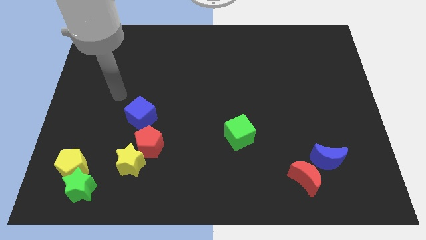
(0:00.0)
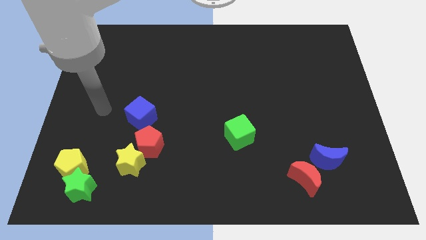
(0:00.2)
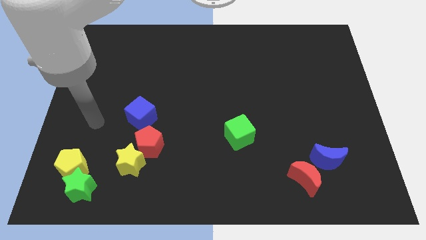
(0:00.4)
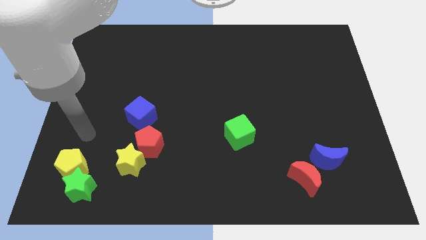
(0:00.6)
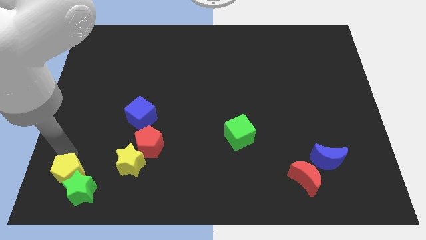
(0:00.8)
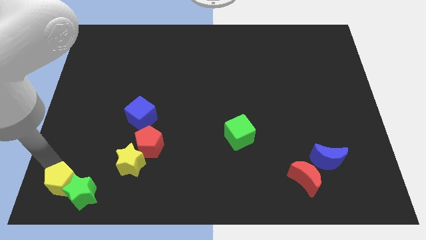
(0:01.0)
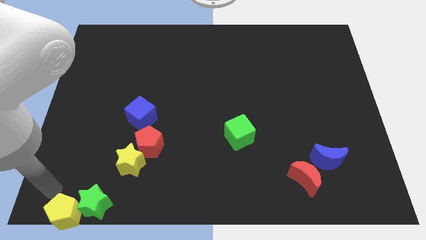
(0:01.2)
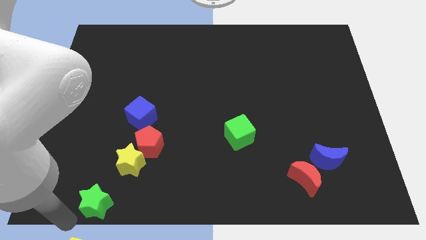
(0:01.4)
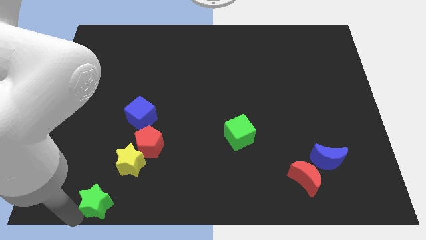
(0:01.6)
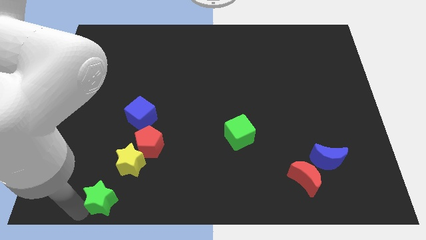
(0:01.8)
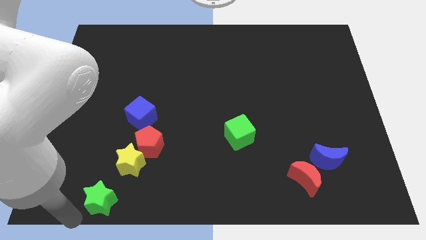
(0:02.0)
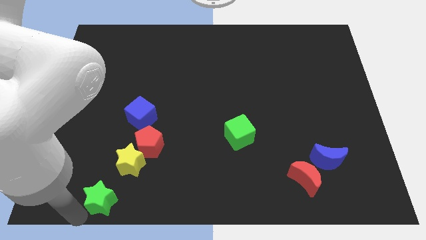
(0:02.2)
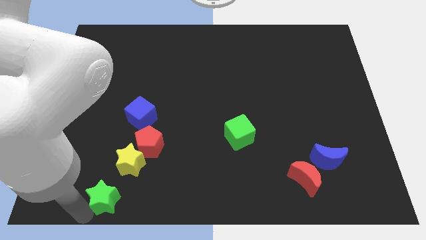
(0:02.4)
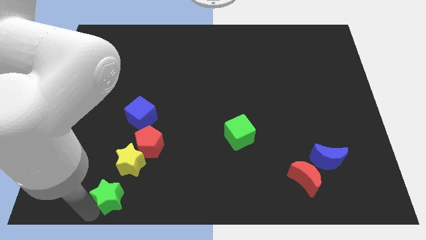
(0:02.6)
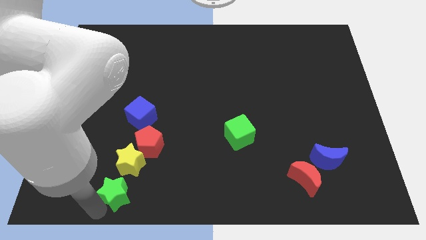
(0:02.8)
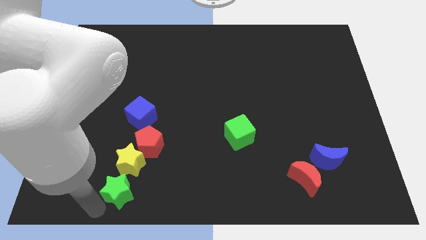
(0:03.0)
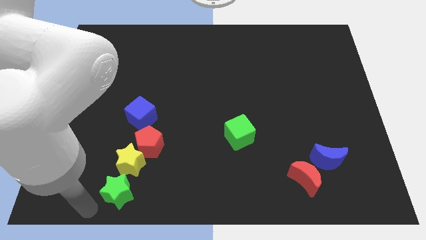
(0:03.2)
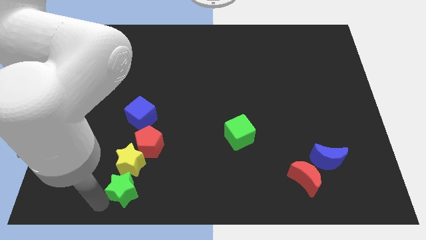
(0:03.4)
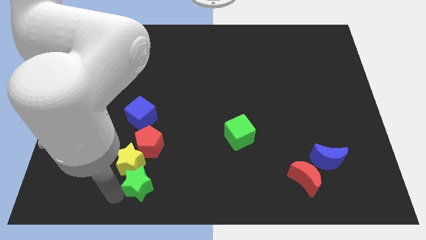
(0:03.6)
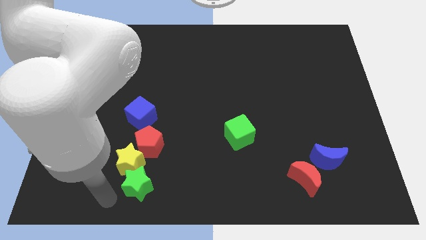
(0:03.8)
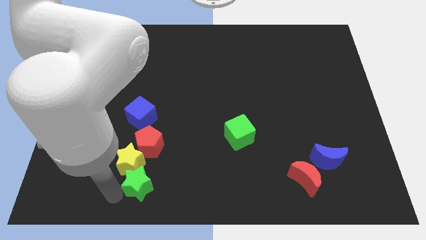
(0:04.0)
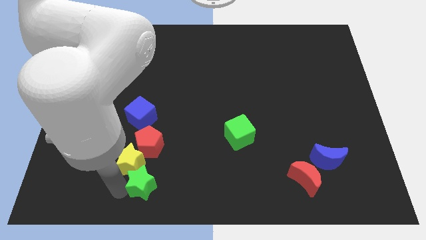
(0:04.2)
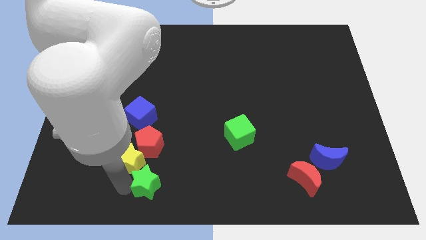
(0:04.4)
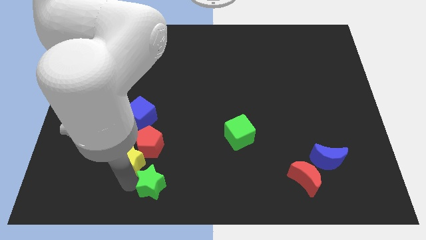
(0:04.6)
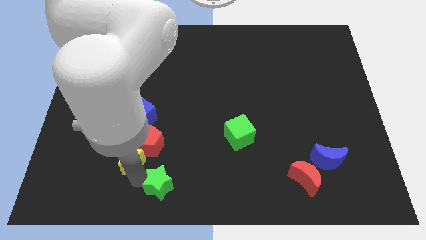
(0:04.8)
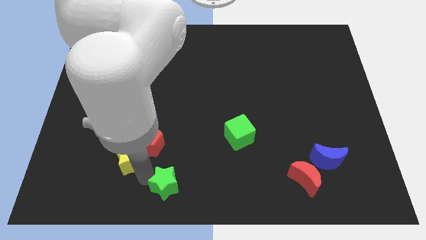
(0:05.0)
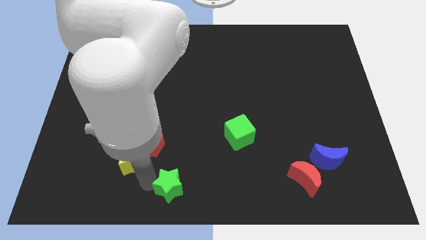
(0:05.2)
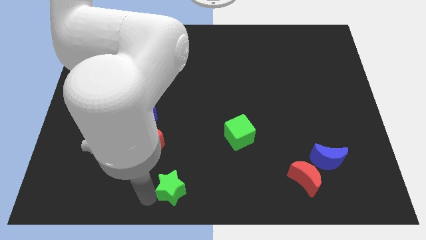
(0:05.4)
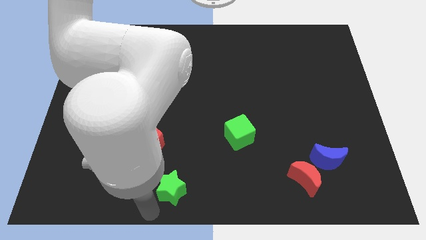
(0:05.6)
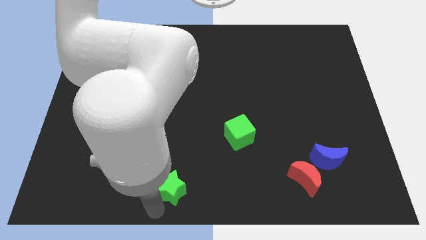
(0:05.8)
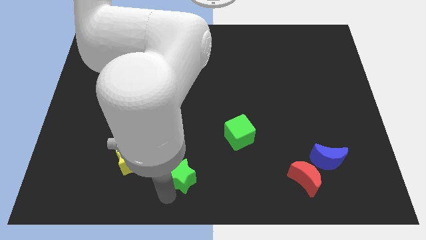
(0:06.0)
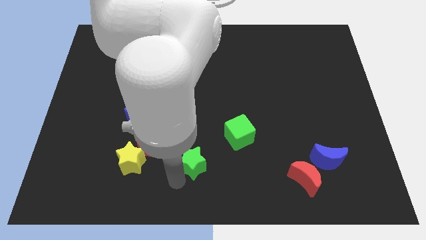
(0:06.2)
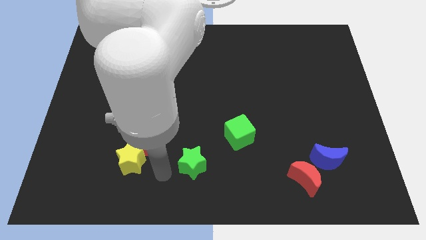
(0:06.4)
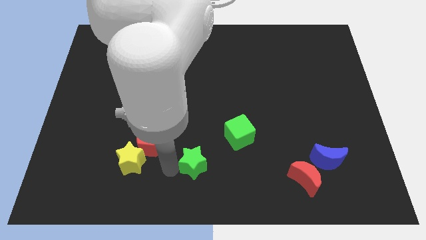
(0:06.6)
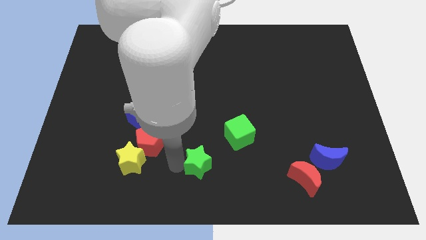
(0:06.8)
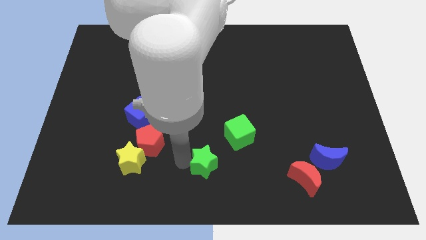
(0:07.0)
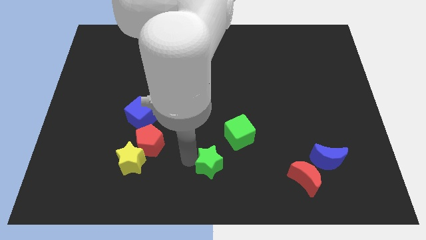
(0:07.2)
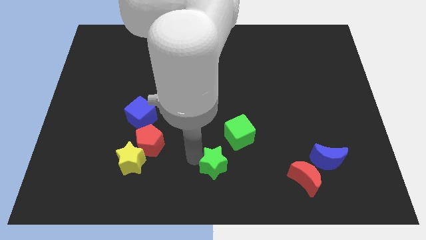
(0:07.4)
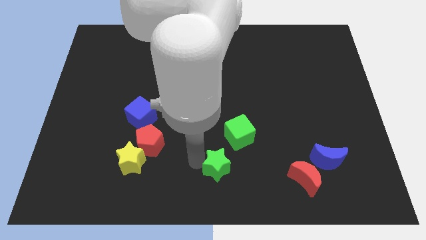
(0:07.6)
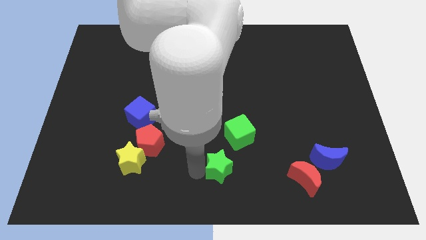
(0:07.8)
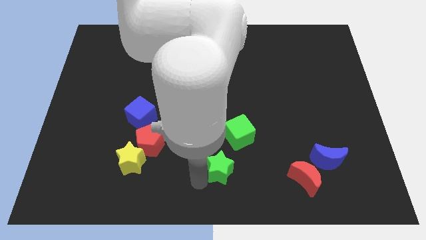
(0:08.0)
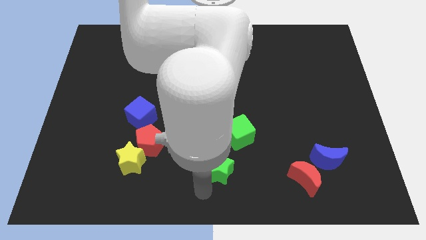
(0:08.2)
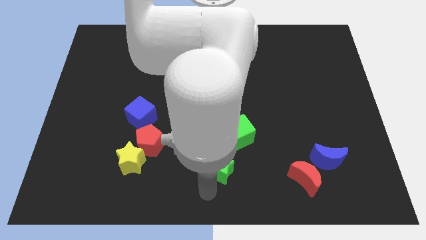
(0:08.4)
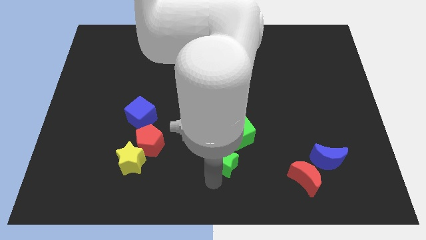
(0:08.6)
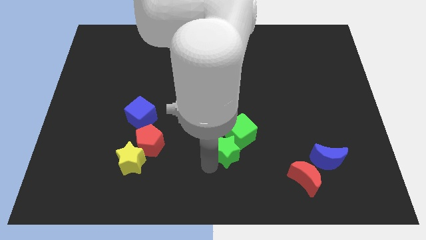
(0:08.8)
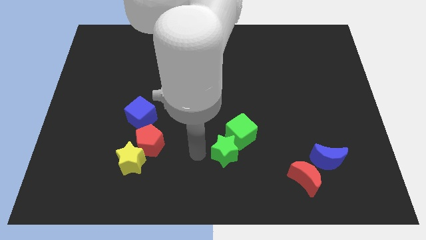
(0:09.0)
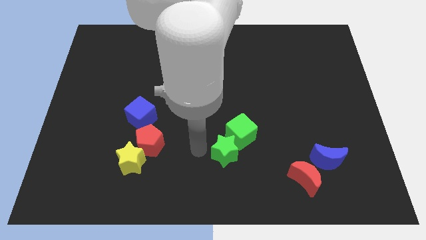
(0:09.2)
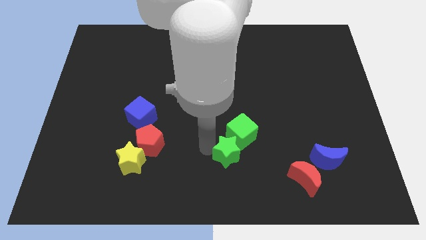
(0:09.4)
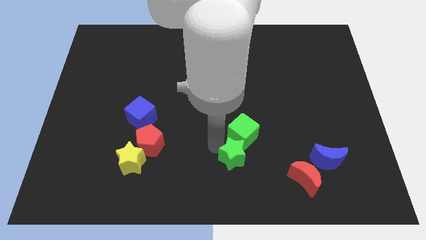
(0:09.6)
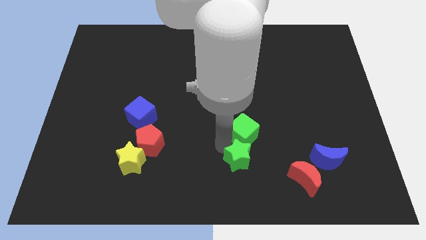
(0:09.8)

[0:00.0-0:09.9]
push the green star diagonally down and to the right of the green cube

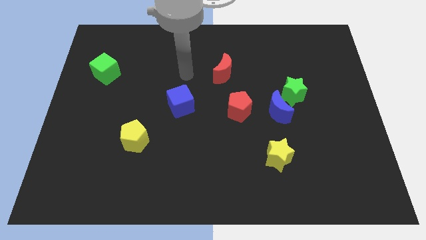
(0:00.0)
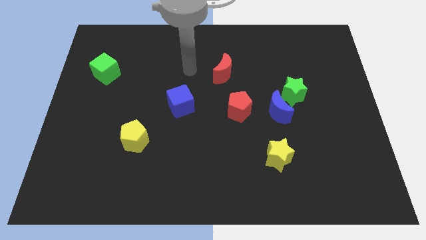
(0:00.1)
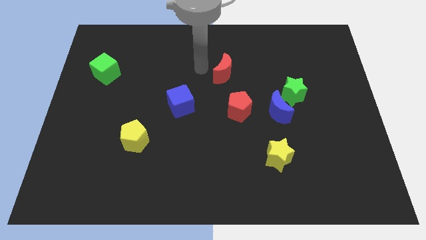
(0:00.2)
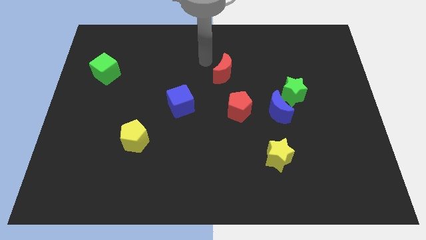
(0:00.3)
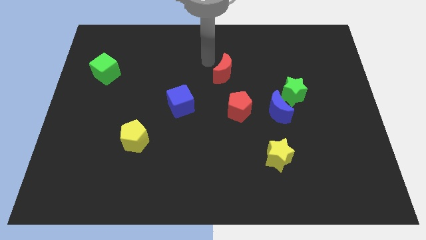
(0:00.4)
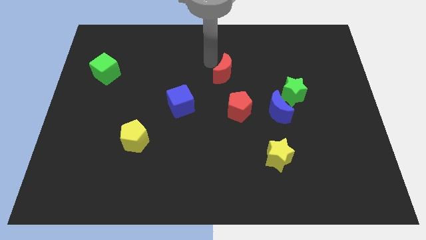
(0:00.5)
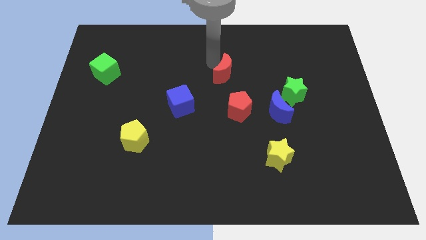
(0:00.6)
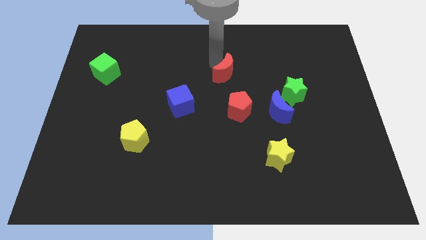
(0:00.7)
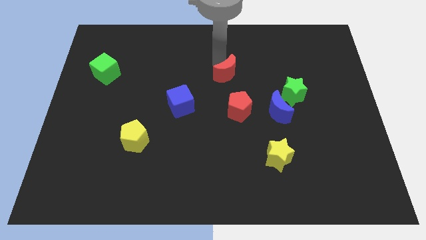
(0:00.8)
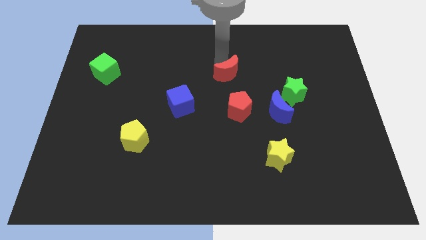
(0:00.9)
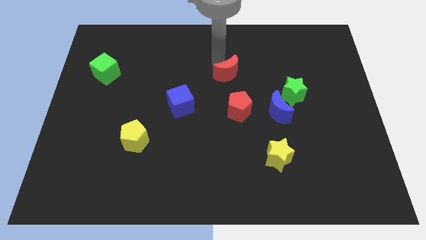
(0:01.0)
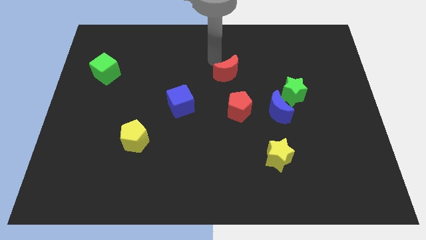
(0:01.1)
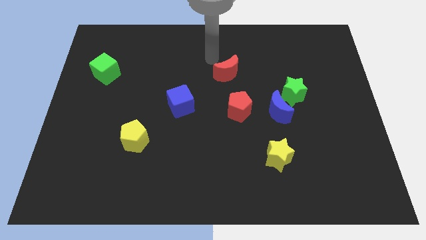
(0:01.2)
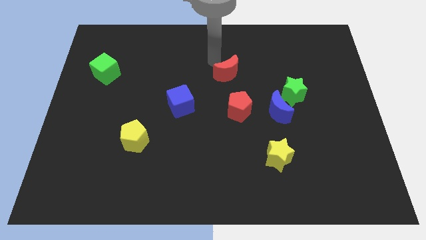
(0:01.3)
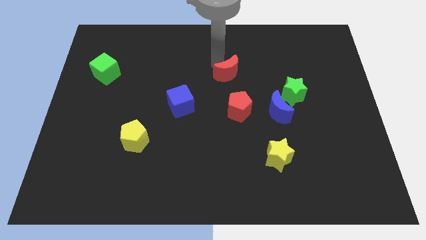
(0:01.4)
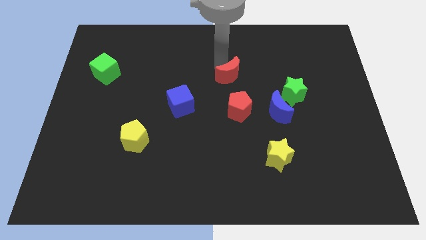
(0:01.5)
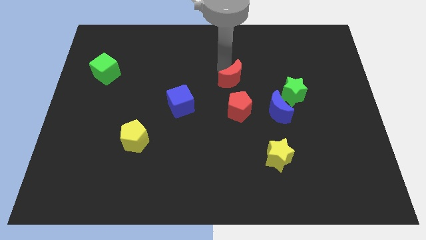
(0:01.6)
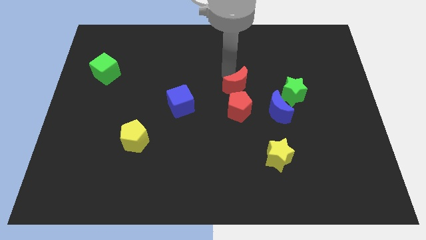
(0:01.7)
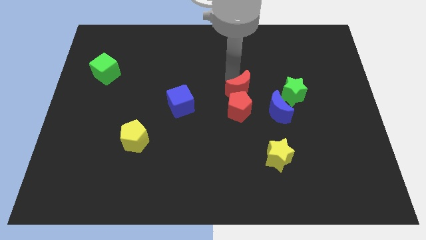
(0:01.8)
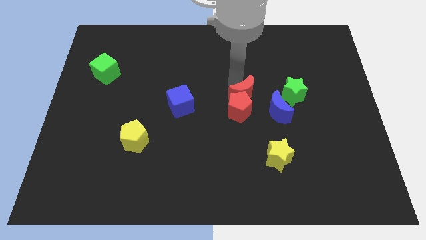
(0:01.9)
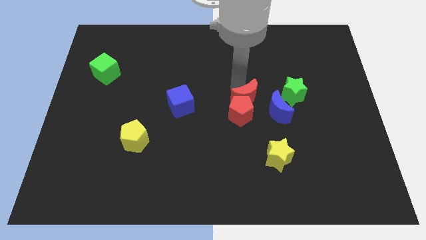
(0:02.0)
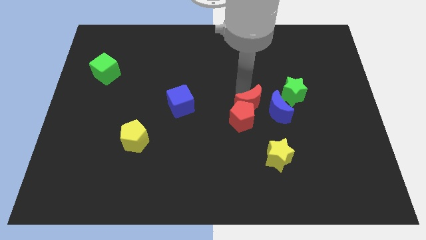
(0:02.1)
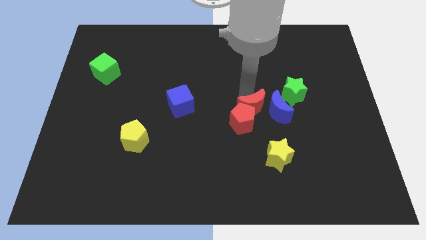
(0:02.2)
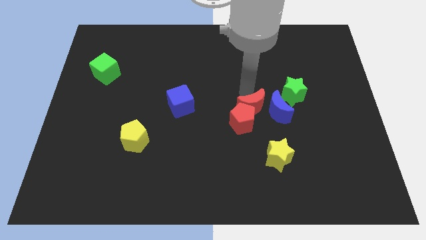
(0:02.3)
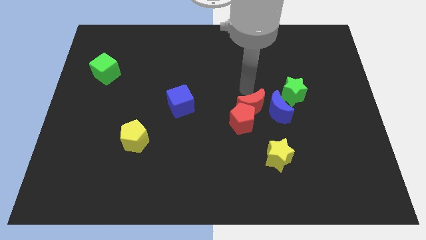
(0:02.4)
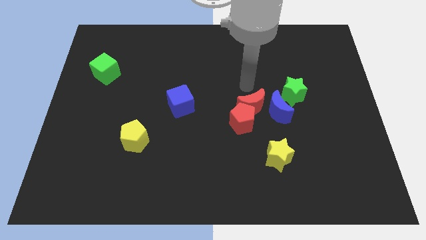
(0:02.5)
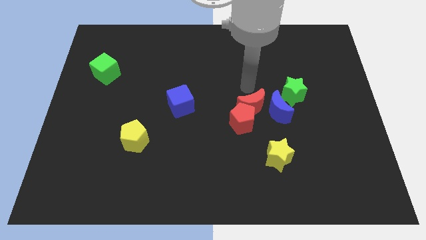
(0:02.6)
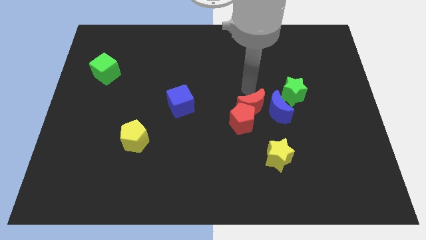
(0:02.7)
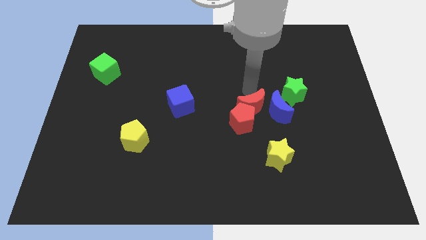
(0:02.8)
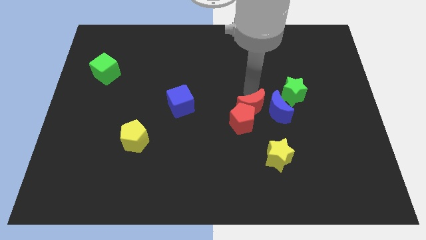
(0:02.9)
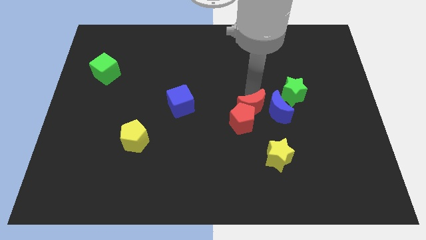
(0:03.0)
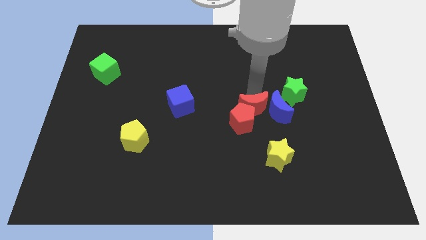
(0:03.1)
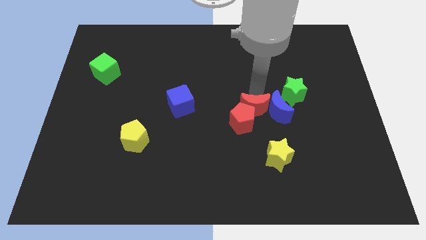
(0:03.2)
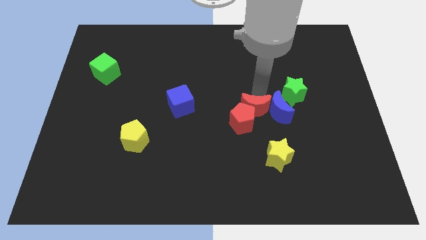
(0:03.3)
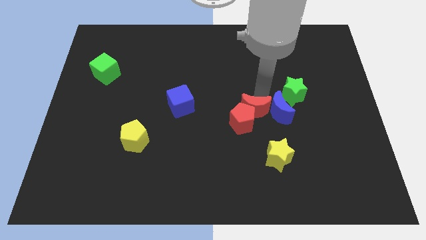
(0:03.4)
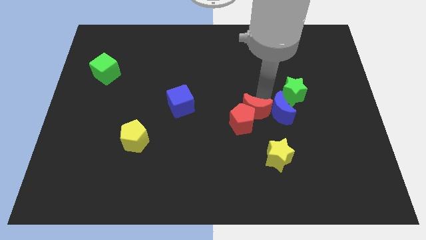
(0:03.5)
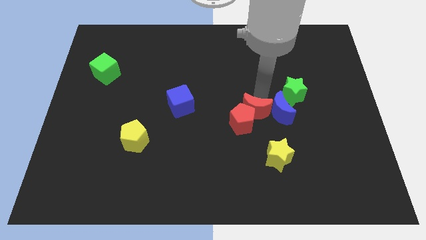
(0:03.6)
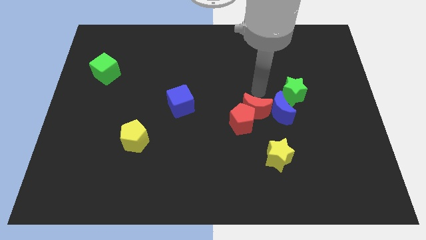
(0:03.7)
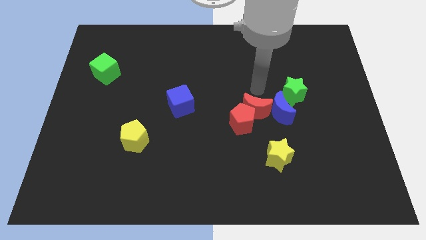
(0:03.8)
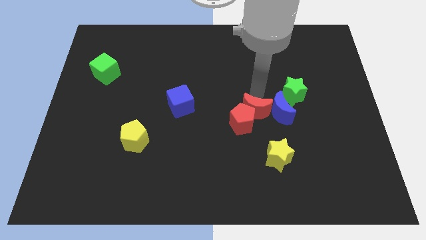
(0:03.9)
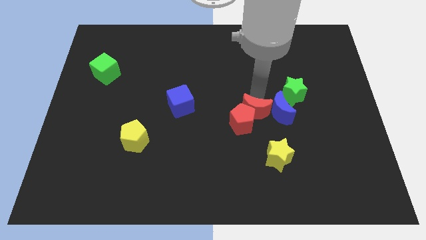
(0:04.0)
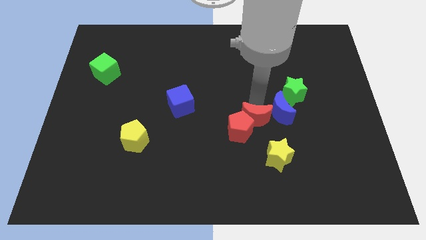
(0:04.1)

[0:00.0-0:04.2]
slide the red moon to the top left side of the yellow star
